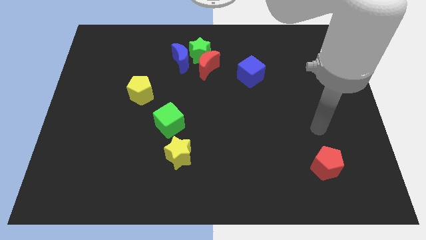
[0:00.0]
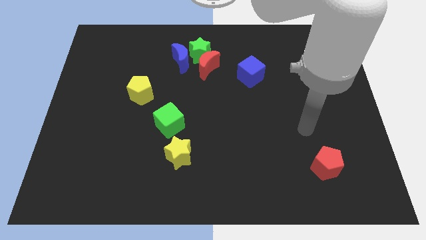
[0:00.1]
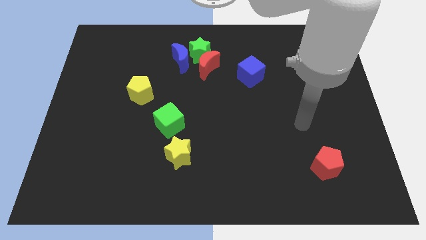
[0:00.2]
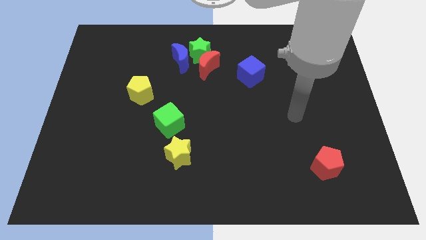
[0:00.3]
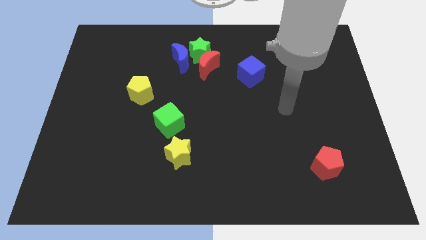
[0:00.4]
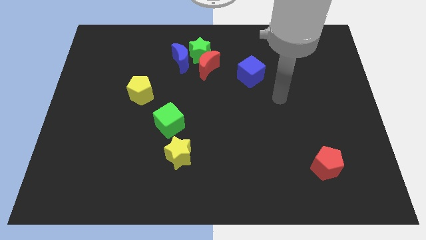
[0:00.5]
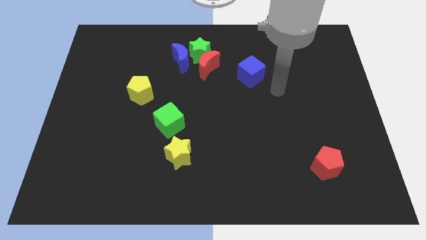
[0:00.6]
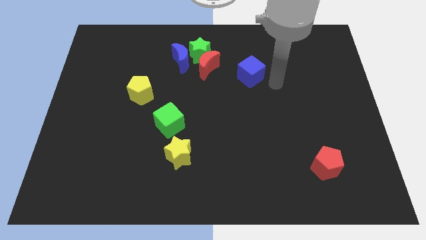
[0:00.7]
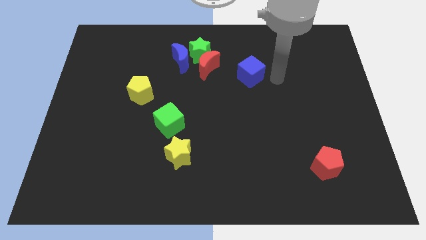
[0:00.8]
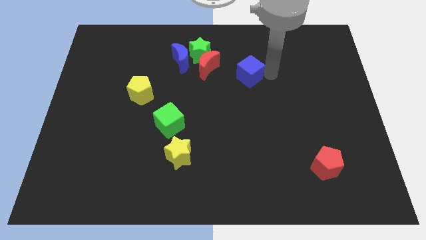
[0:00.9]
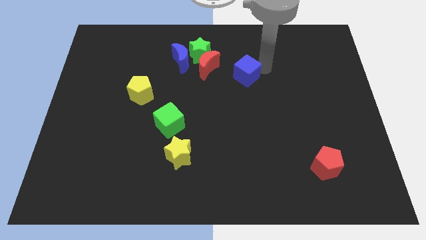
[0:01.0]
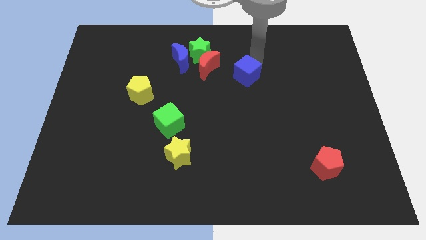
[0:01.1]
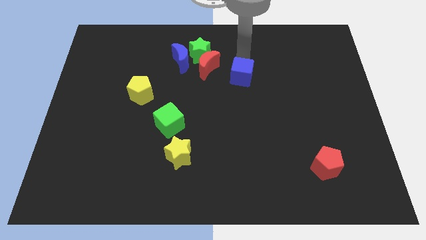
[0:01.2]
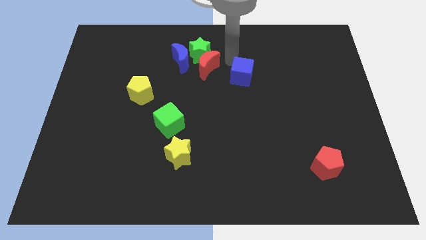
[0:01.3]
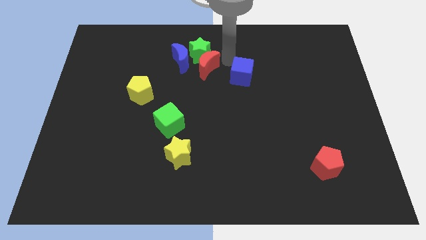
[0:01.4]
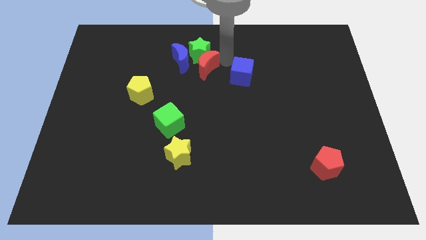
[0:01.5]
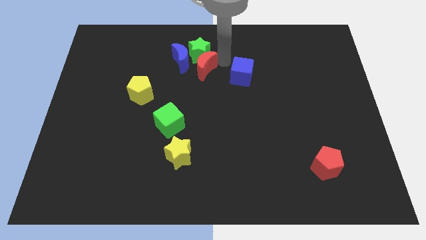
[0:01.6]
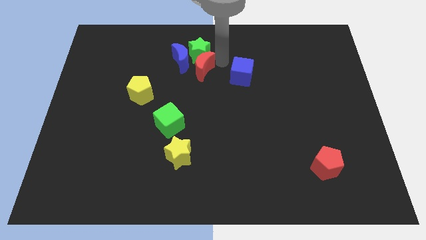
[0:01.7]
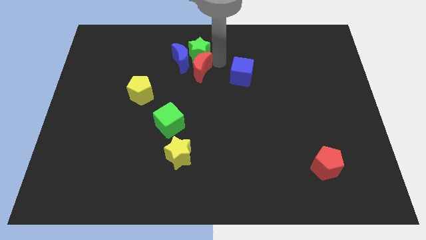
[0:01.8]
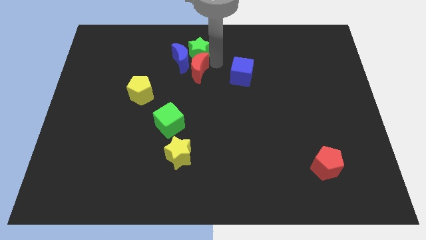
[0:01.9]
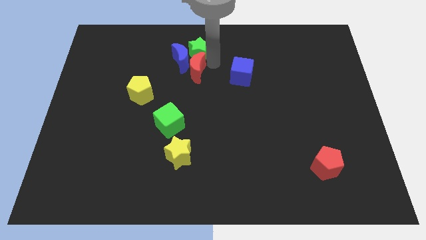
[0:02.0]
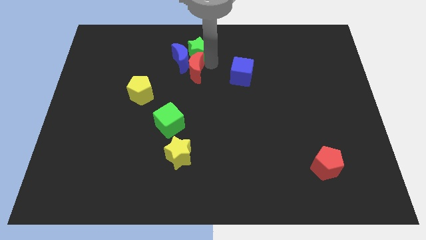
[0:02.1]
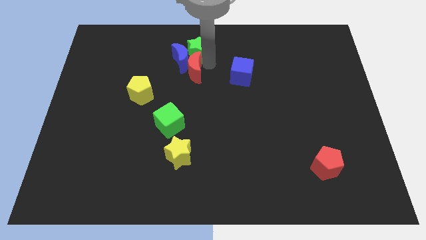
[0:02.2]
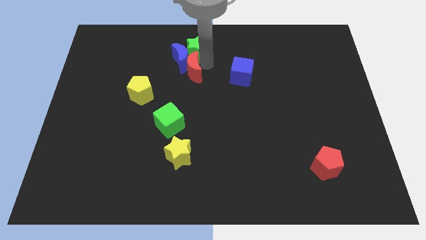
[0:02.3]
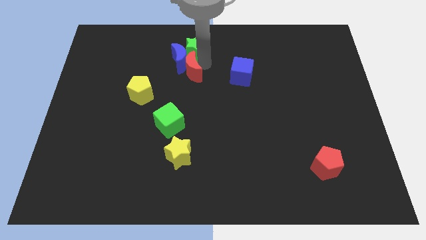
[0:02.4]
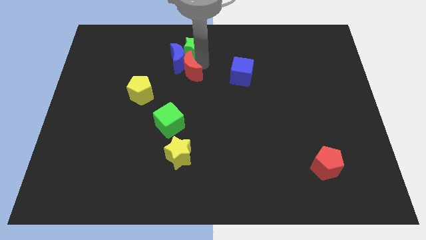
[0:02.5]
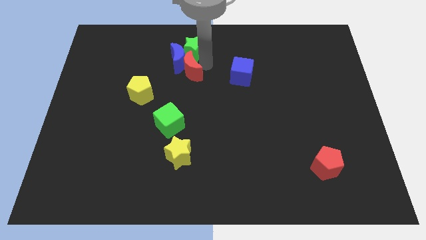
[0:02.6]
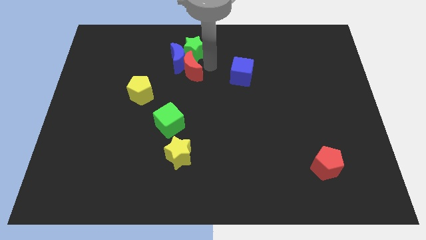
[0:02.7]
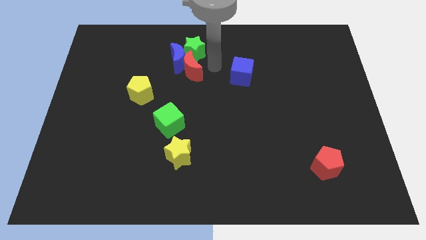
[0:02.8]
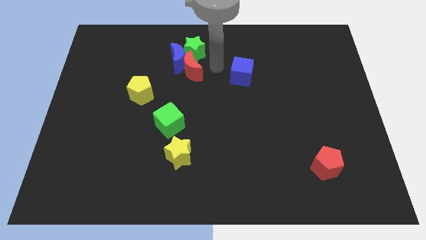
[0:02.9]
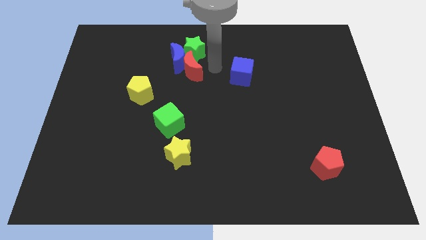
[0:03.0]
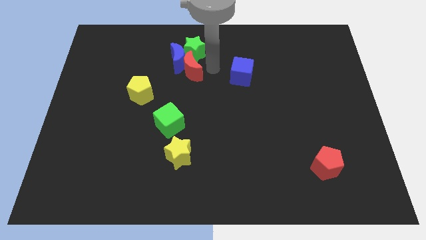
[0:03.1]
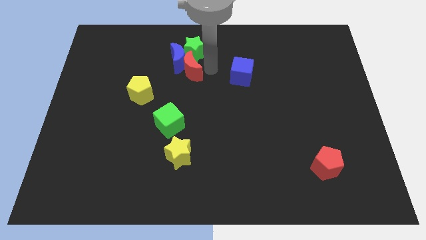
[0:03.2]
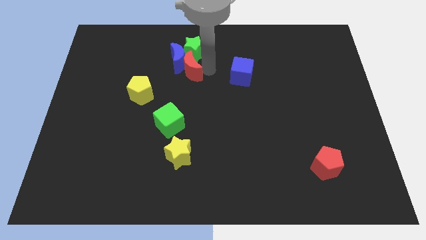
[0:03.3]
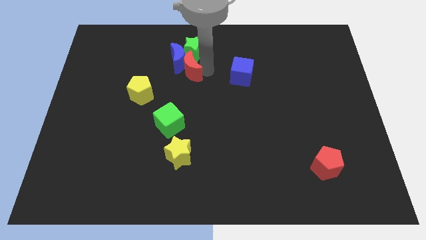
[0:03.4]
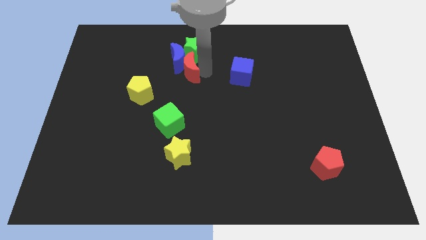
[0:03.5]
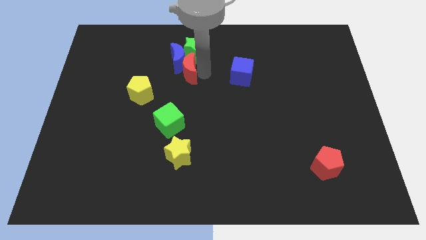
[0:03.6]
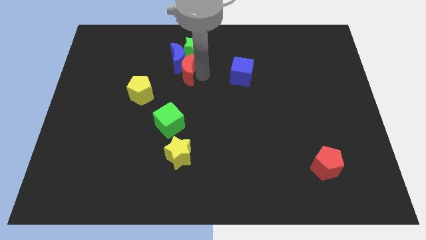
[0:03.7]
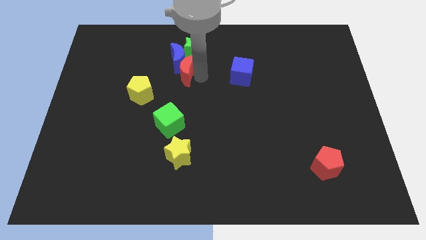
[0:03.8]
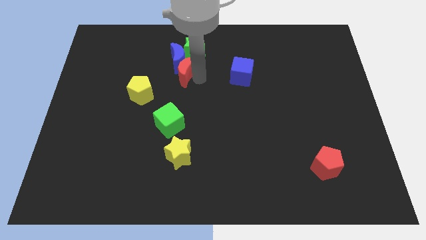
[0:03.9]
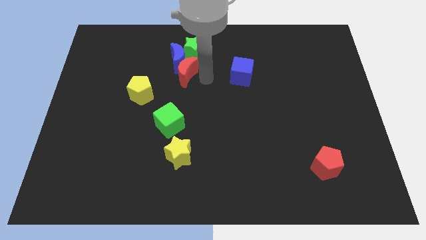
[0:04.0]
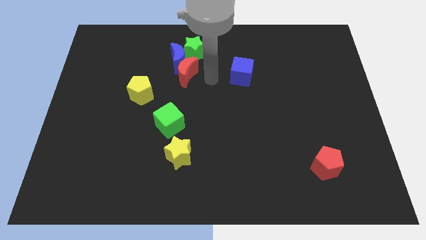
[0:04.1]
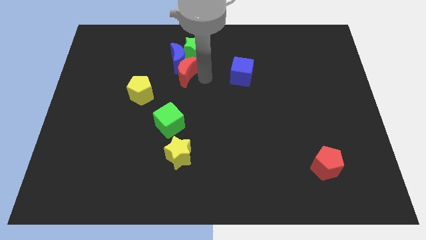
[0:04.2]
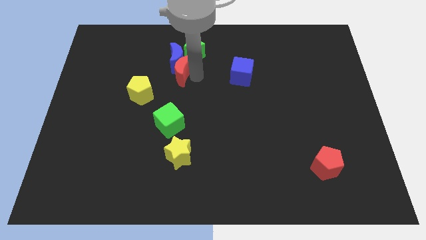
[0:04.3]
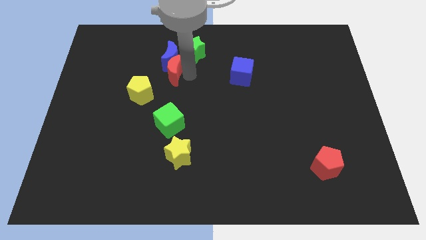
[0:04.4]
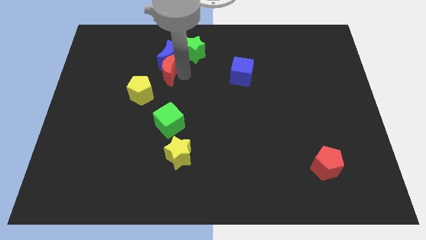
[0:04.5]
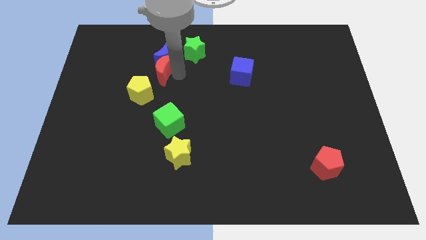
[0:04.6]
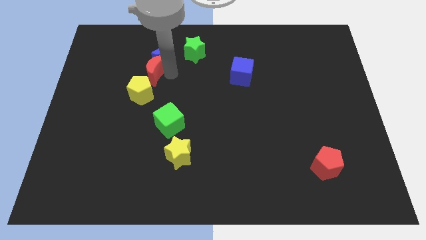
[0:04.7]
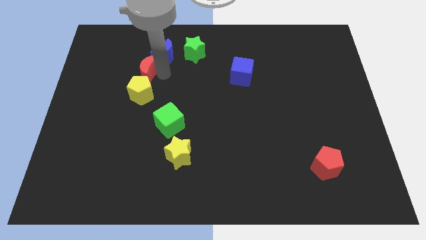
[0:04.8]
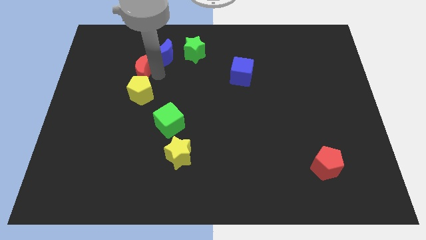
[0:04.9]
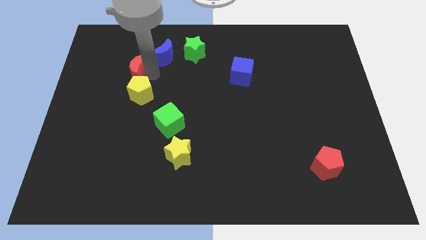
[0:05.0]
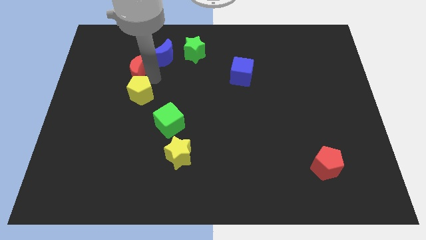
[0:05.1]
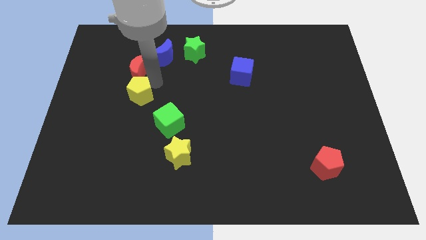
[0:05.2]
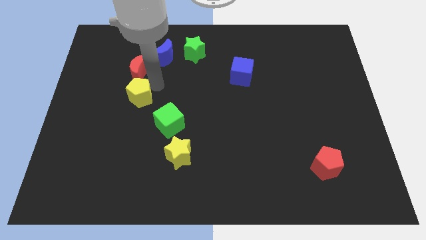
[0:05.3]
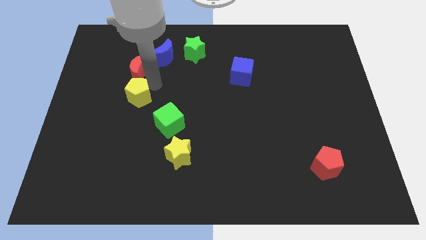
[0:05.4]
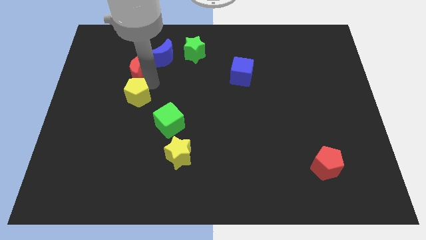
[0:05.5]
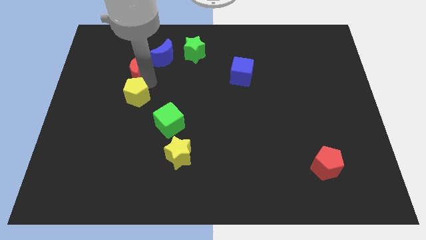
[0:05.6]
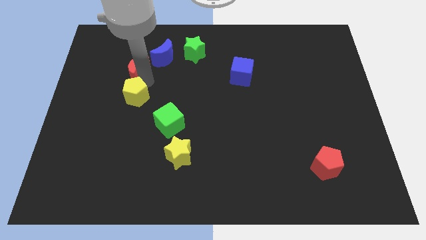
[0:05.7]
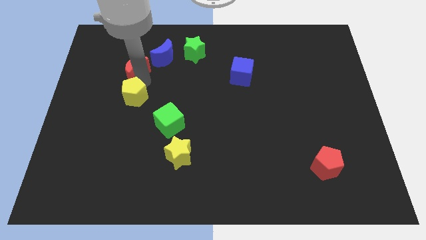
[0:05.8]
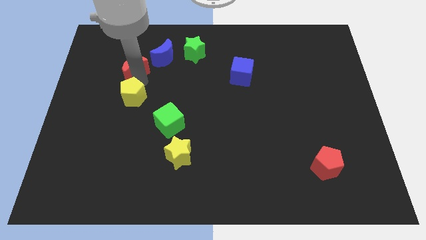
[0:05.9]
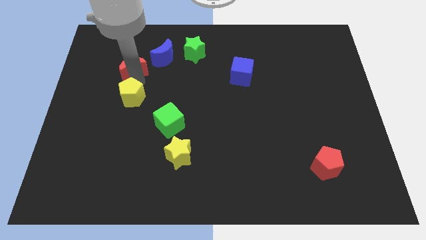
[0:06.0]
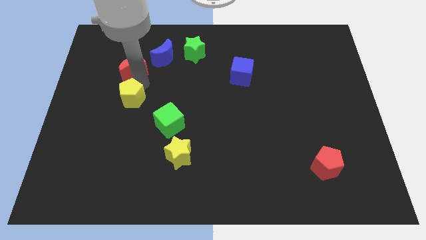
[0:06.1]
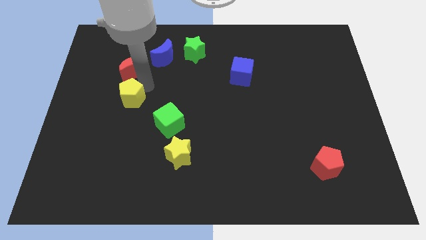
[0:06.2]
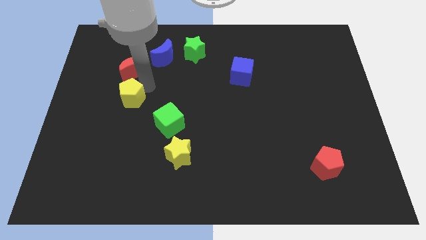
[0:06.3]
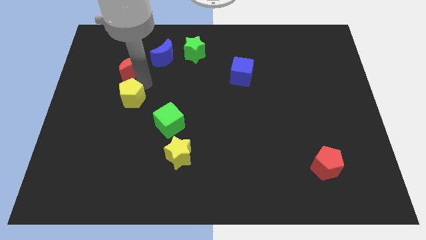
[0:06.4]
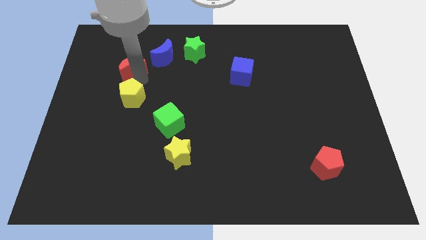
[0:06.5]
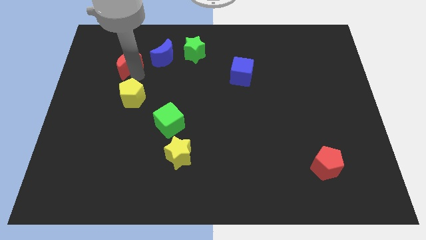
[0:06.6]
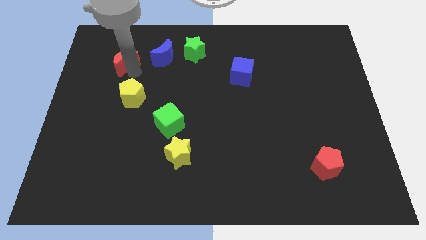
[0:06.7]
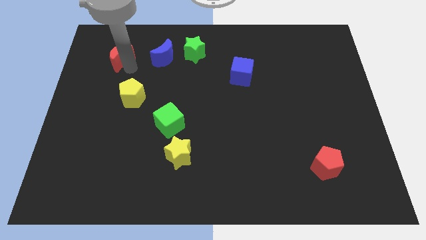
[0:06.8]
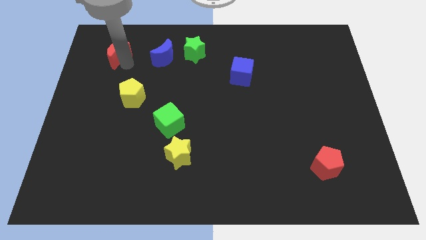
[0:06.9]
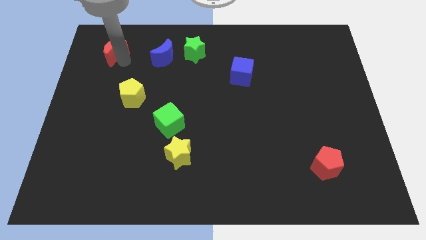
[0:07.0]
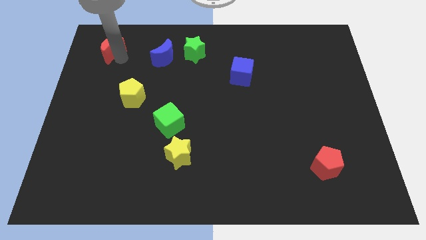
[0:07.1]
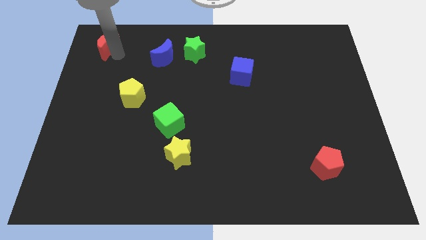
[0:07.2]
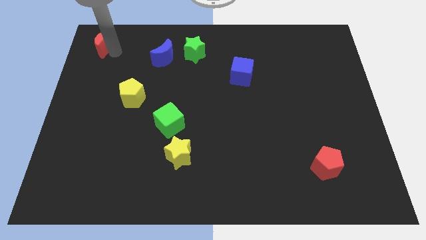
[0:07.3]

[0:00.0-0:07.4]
put the red moon to the top left
